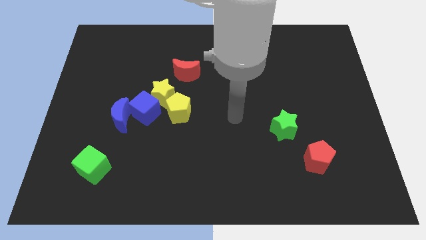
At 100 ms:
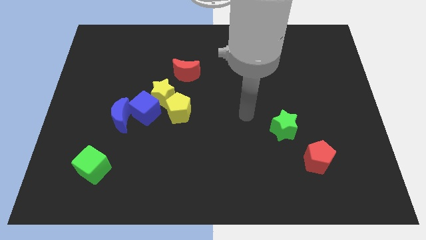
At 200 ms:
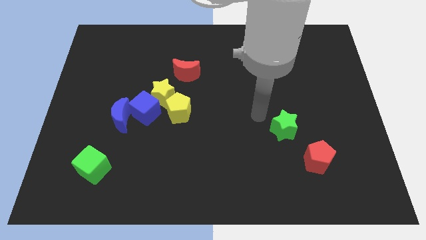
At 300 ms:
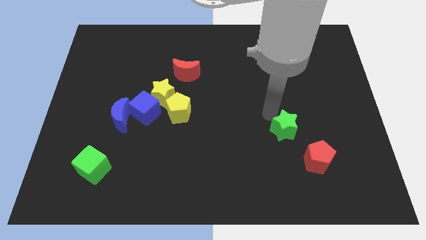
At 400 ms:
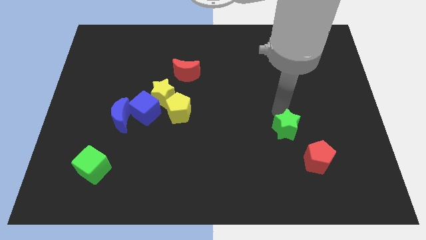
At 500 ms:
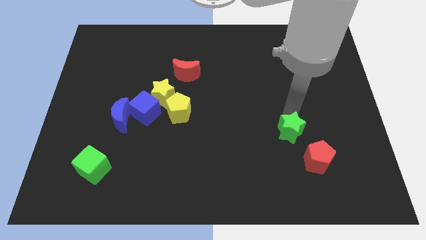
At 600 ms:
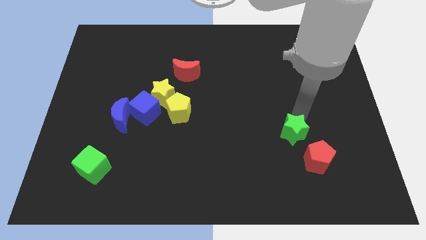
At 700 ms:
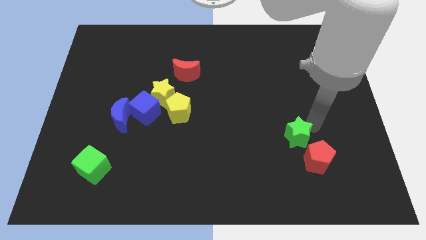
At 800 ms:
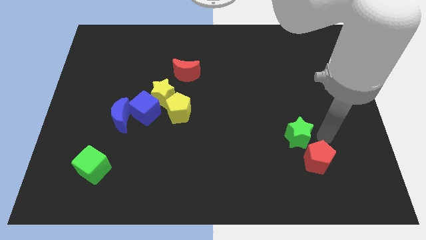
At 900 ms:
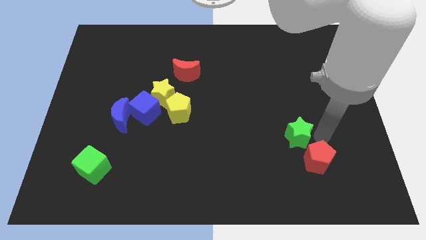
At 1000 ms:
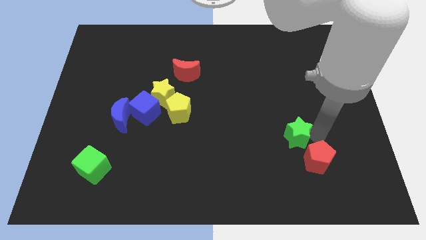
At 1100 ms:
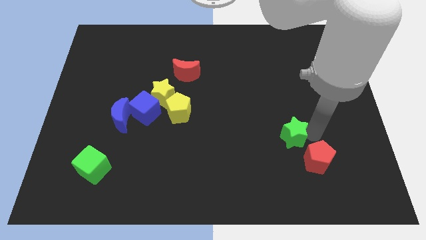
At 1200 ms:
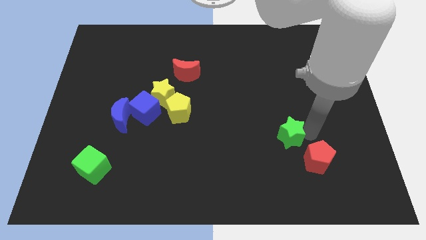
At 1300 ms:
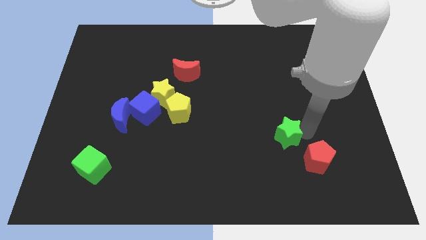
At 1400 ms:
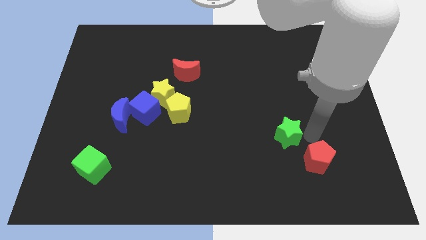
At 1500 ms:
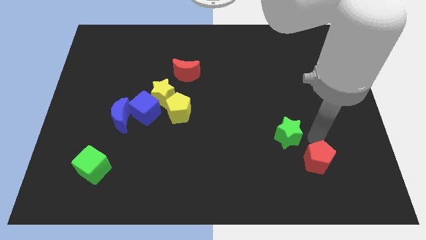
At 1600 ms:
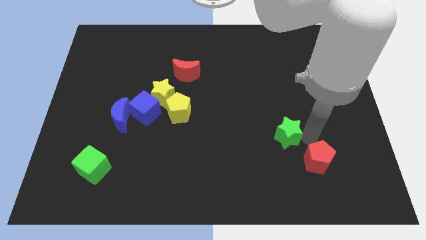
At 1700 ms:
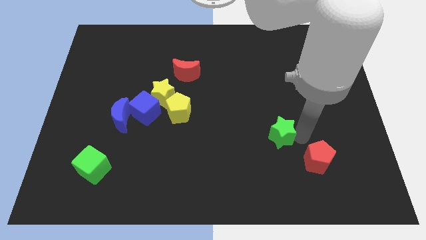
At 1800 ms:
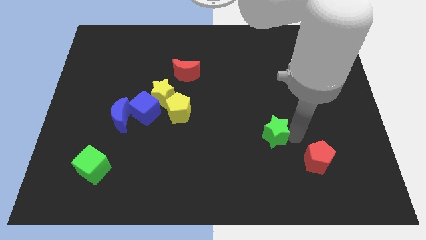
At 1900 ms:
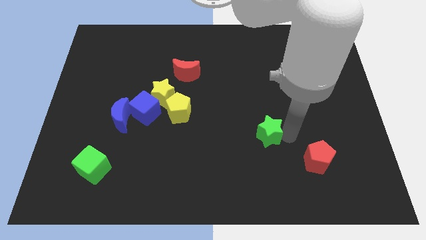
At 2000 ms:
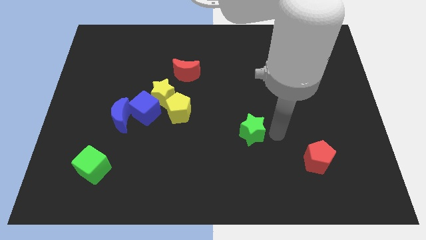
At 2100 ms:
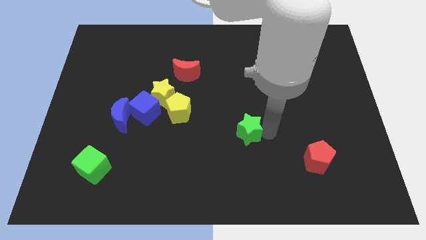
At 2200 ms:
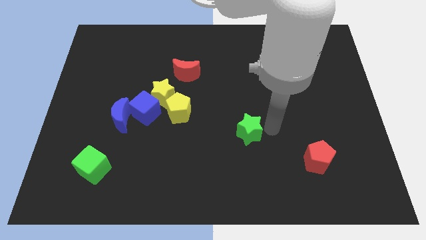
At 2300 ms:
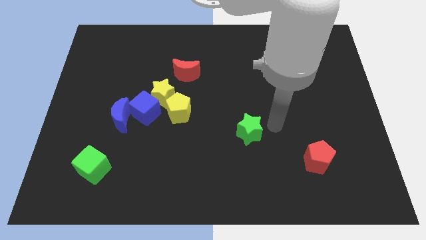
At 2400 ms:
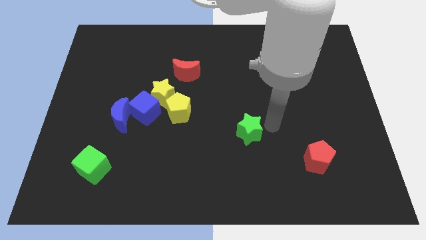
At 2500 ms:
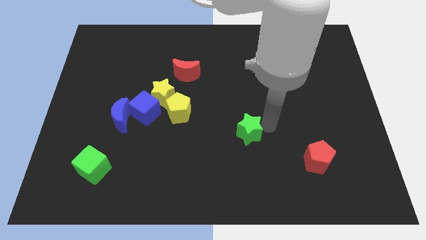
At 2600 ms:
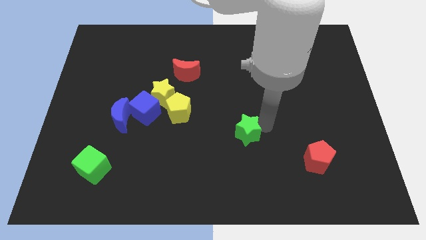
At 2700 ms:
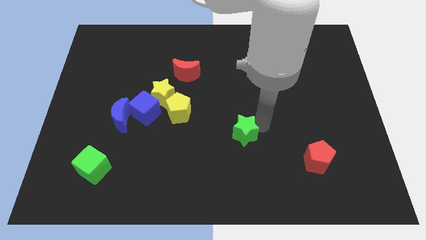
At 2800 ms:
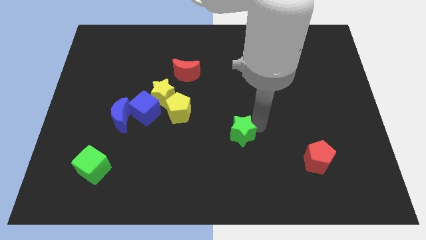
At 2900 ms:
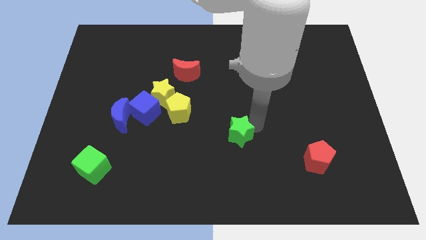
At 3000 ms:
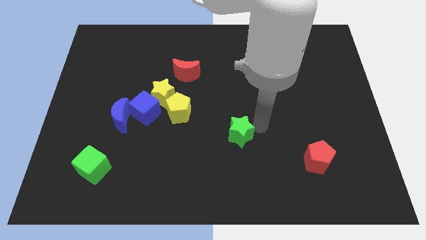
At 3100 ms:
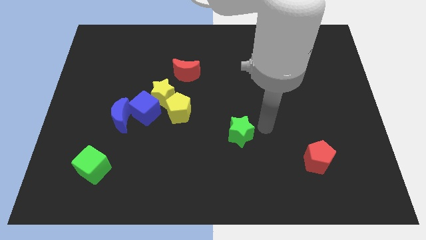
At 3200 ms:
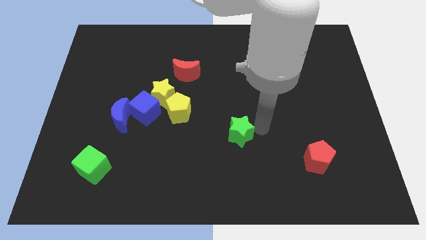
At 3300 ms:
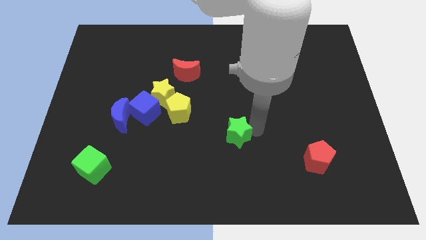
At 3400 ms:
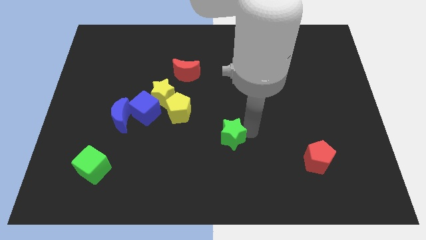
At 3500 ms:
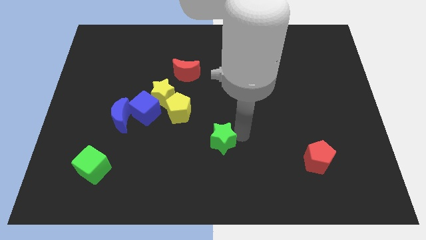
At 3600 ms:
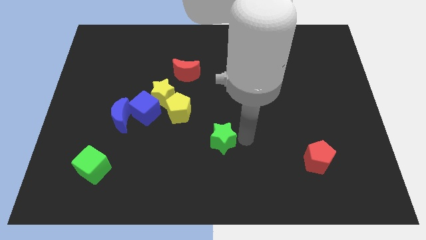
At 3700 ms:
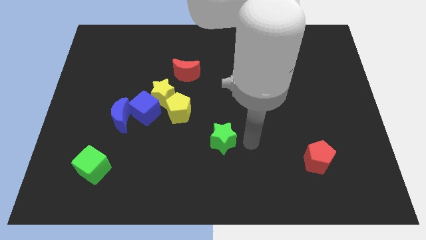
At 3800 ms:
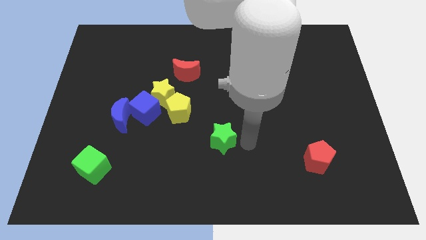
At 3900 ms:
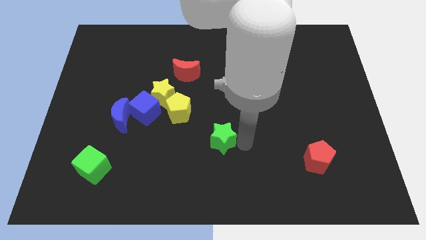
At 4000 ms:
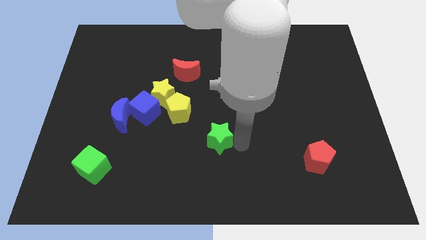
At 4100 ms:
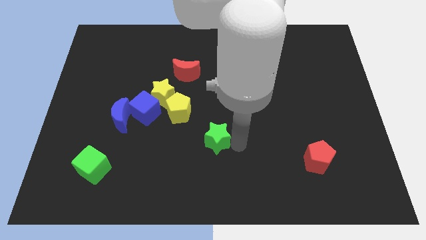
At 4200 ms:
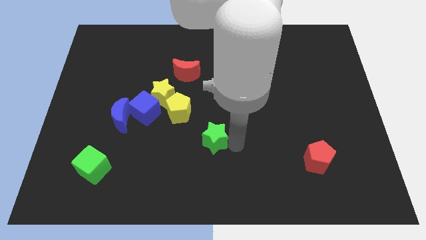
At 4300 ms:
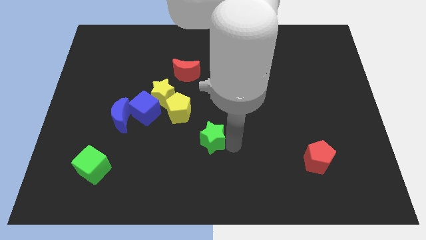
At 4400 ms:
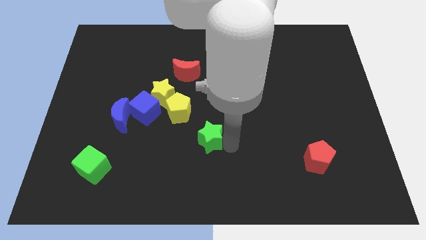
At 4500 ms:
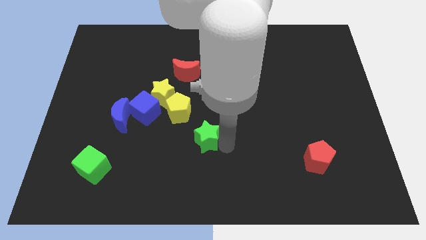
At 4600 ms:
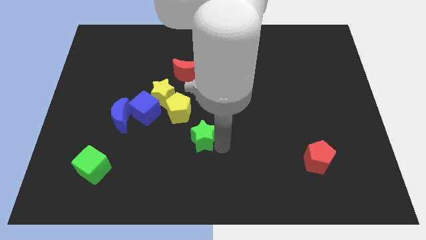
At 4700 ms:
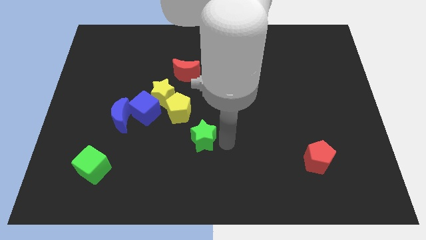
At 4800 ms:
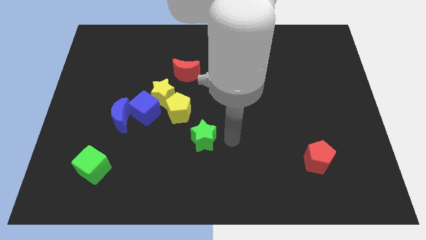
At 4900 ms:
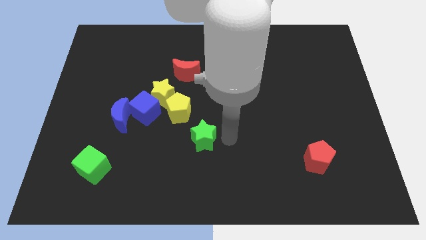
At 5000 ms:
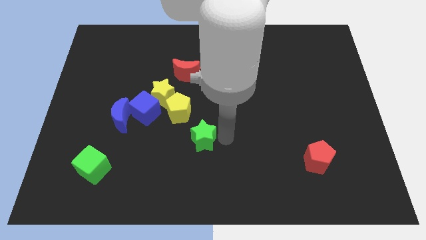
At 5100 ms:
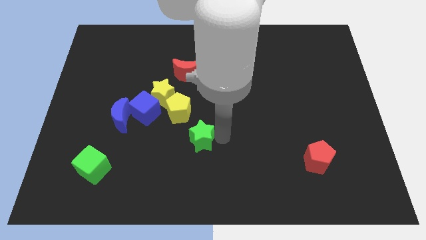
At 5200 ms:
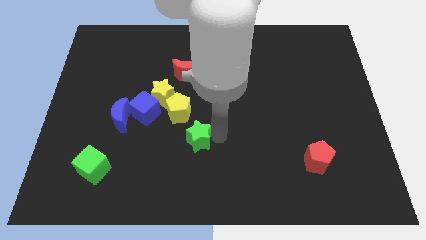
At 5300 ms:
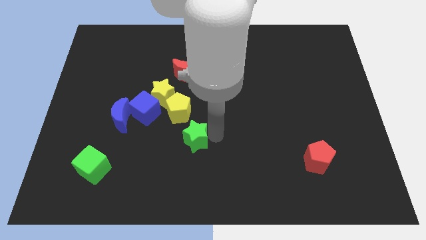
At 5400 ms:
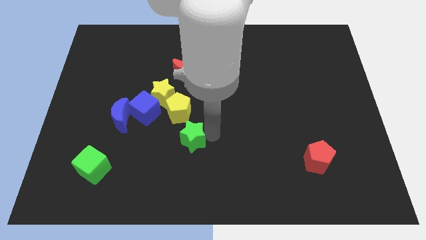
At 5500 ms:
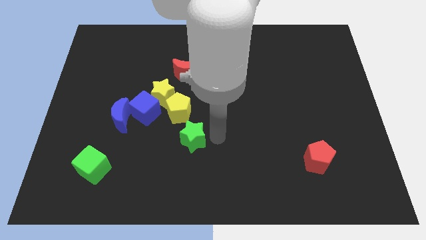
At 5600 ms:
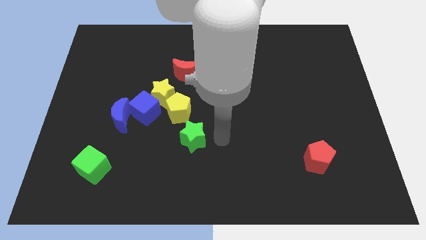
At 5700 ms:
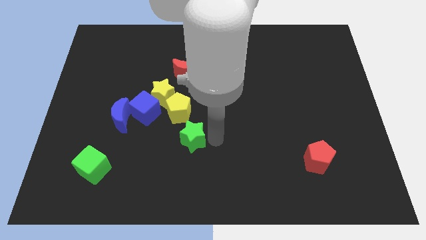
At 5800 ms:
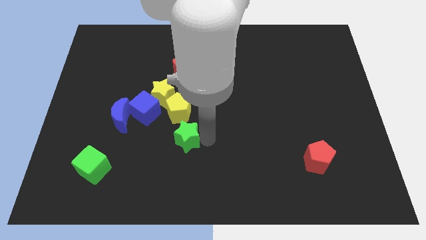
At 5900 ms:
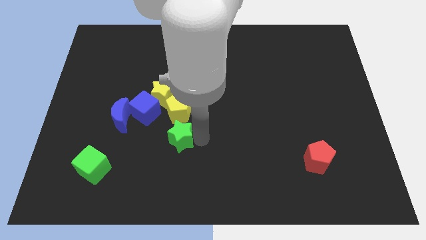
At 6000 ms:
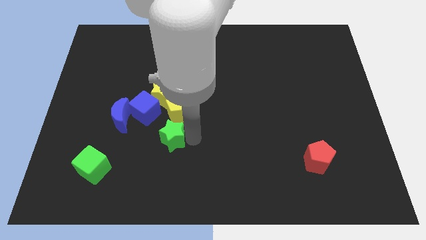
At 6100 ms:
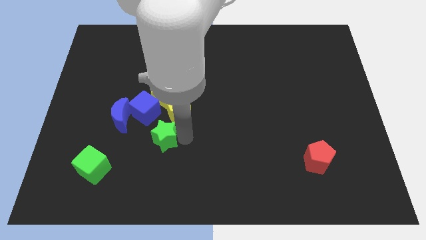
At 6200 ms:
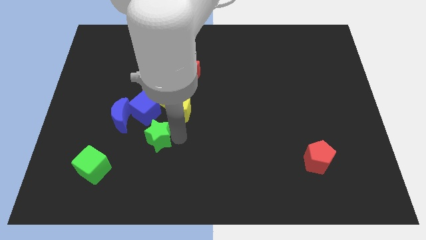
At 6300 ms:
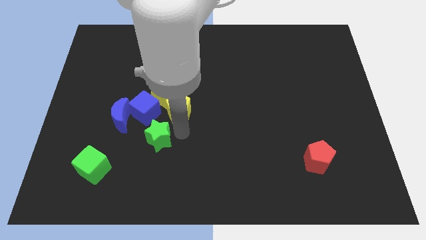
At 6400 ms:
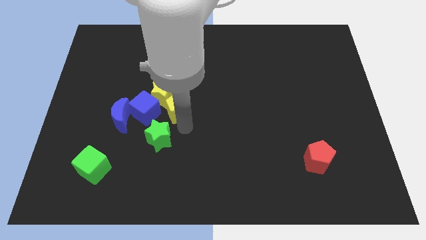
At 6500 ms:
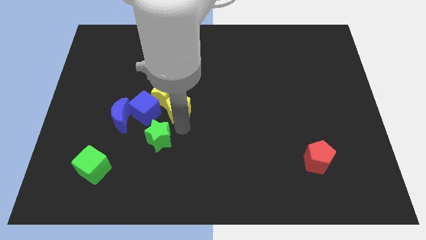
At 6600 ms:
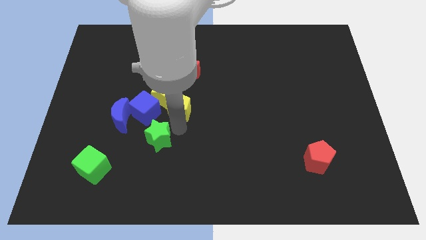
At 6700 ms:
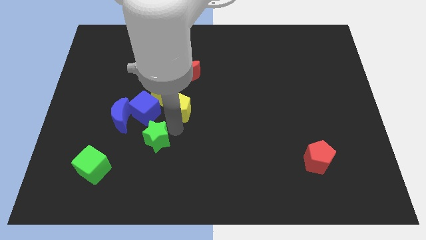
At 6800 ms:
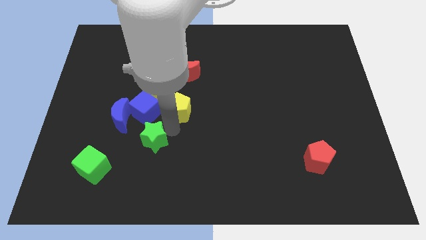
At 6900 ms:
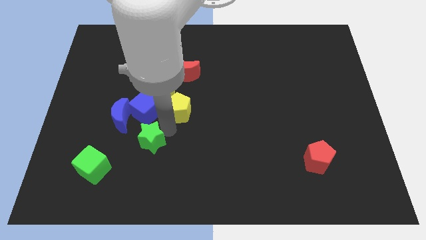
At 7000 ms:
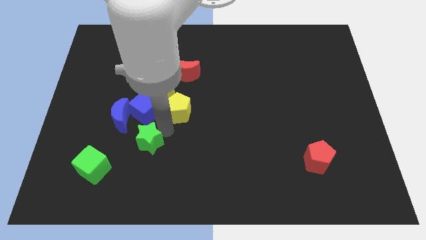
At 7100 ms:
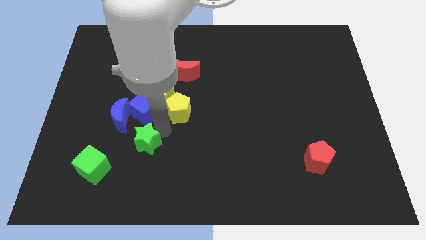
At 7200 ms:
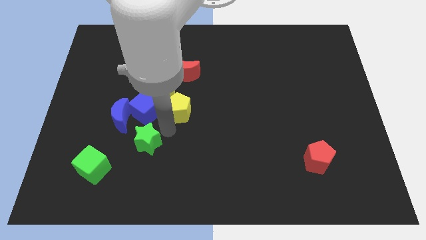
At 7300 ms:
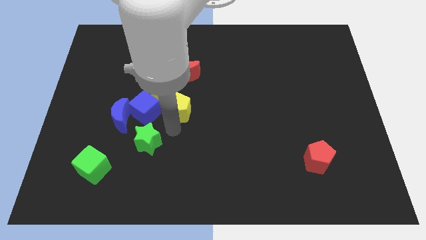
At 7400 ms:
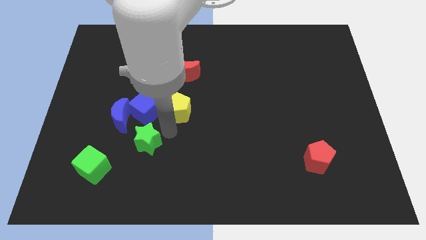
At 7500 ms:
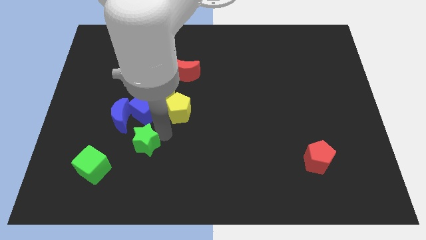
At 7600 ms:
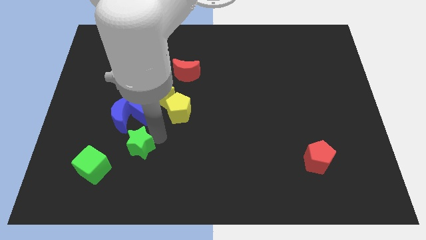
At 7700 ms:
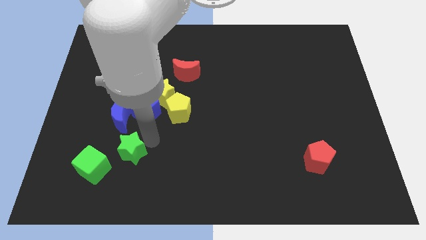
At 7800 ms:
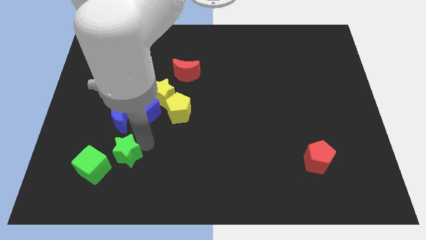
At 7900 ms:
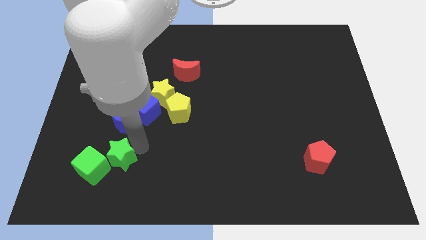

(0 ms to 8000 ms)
move the green star close to the green cube
